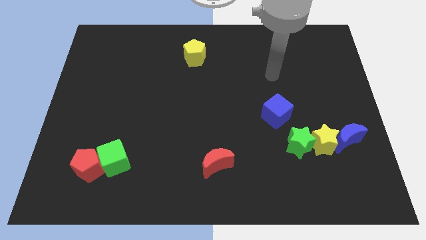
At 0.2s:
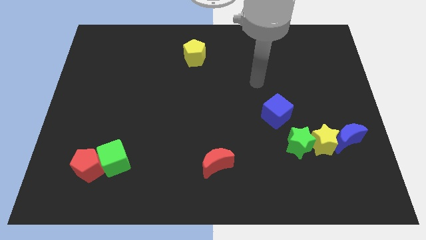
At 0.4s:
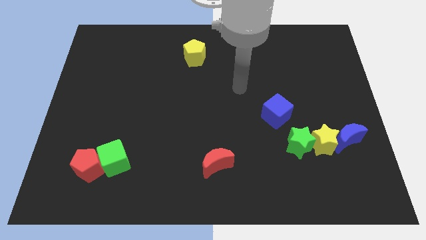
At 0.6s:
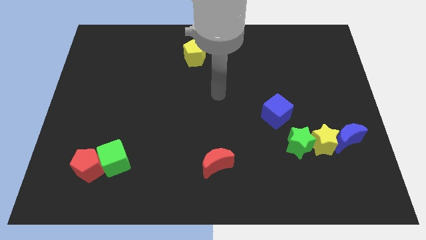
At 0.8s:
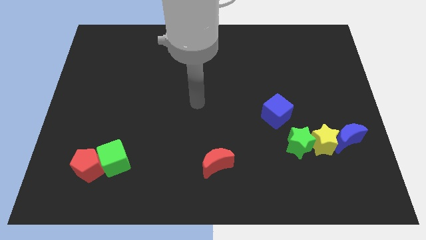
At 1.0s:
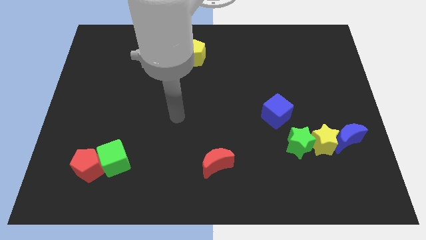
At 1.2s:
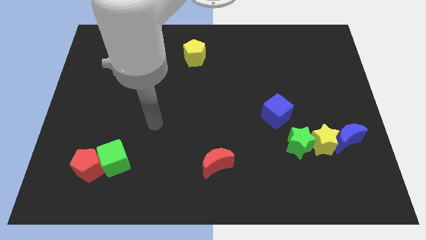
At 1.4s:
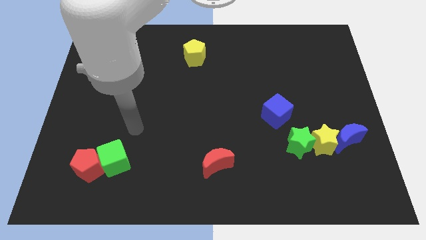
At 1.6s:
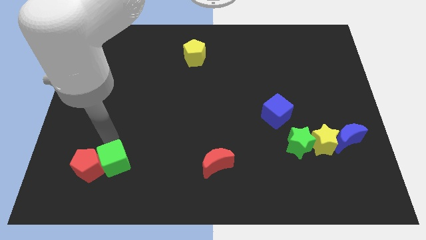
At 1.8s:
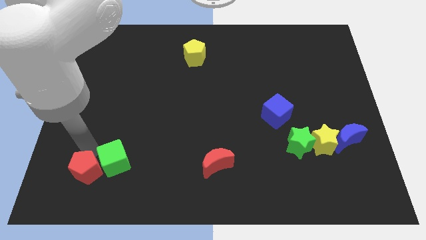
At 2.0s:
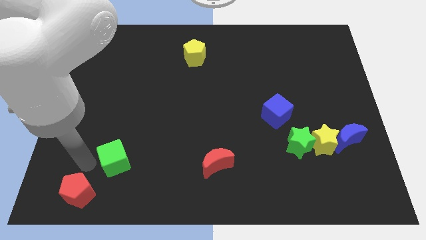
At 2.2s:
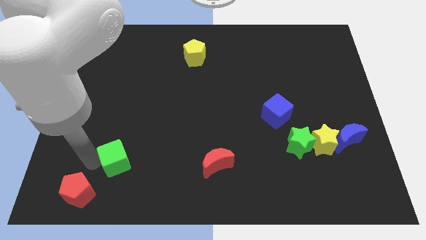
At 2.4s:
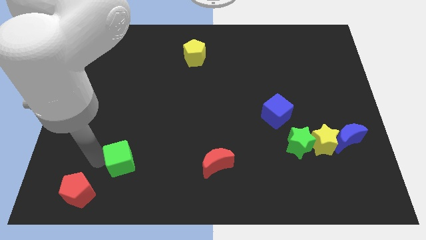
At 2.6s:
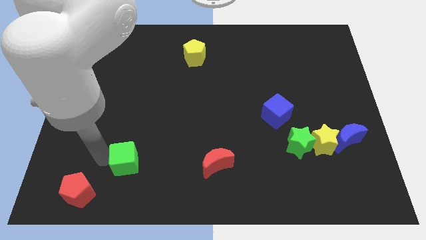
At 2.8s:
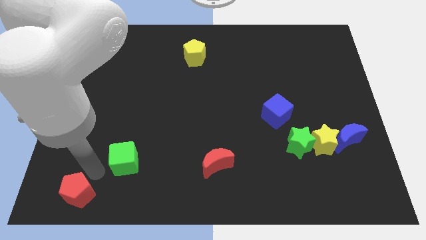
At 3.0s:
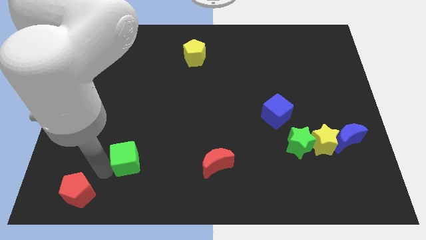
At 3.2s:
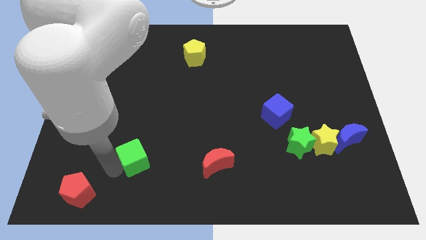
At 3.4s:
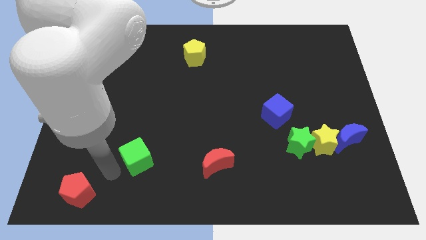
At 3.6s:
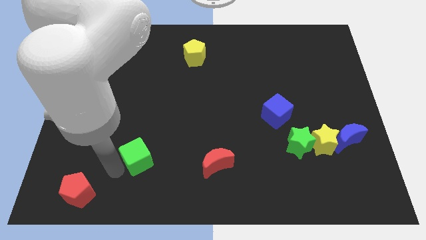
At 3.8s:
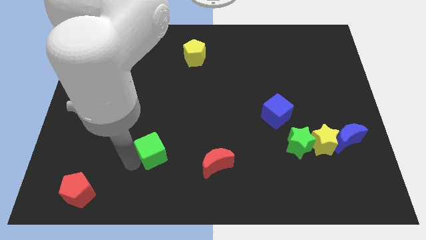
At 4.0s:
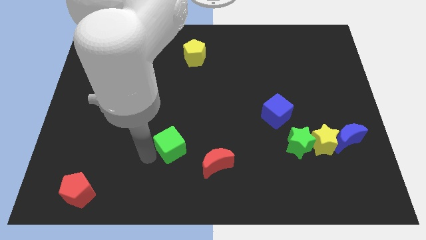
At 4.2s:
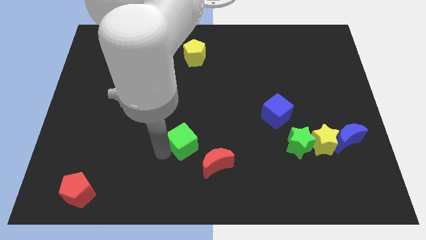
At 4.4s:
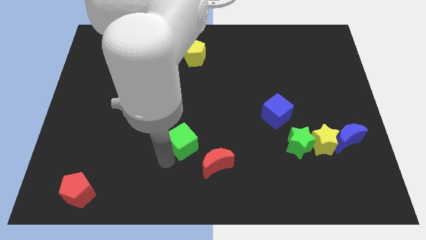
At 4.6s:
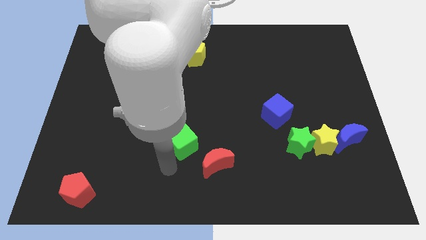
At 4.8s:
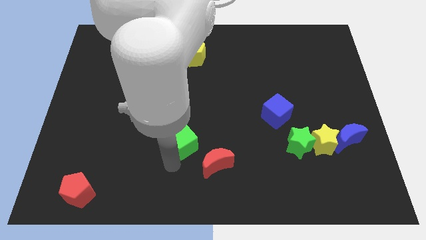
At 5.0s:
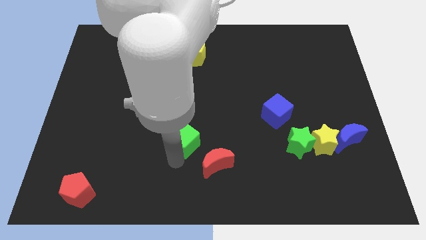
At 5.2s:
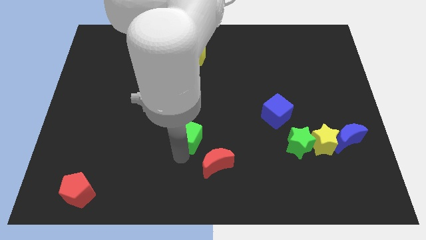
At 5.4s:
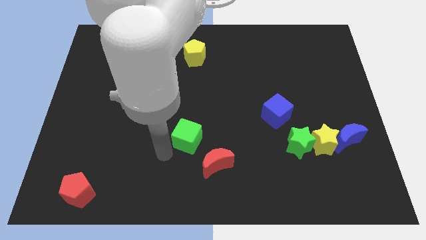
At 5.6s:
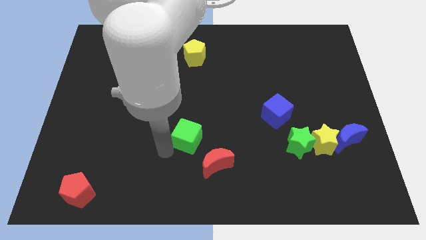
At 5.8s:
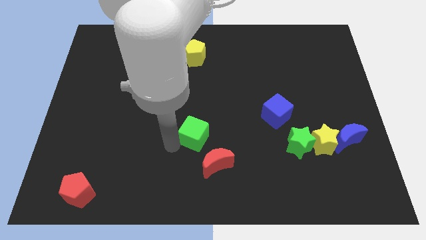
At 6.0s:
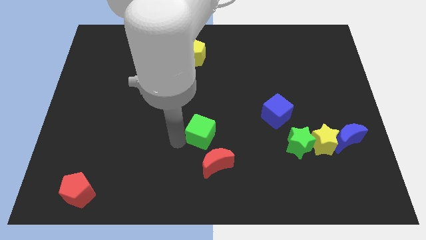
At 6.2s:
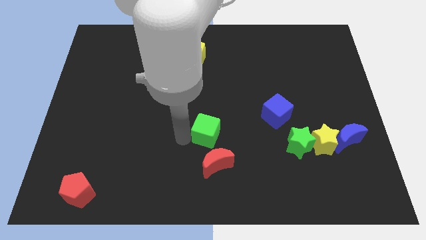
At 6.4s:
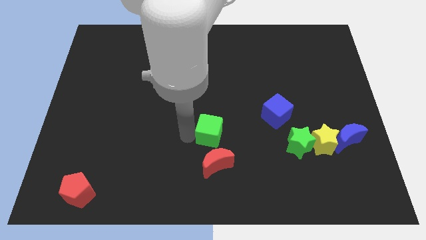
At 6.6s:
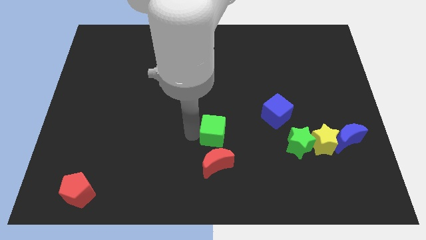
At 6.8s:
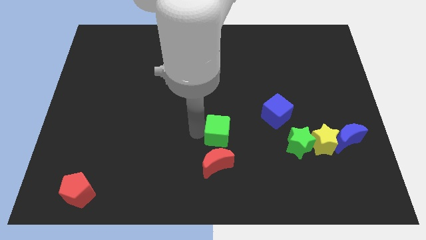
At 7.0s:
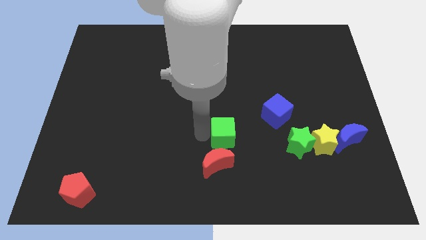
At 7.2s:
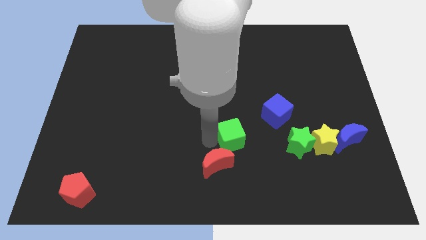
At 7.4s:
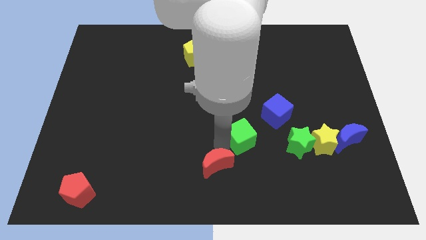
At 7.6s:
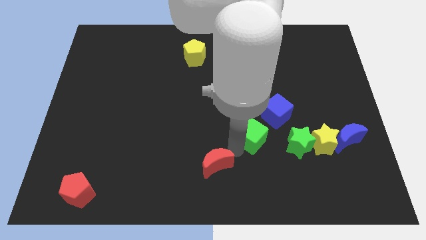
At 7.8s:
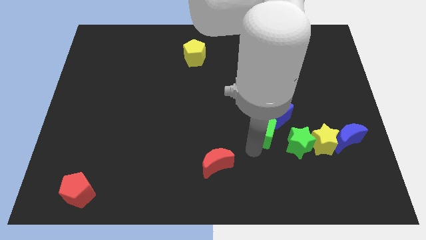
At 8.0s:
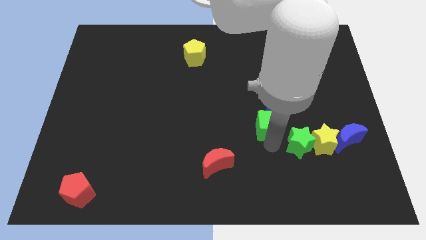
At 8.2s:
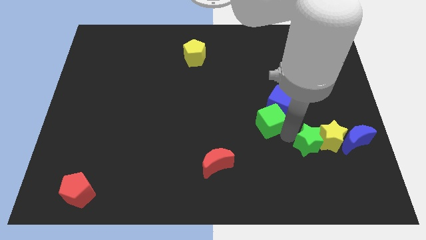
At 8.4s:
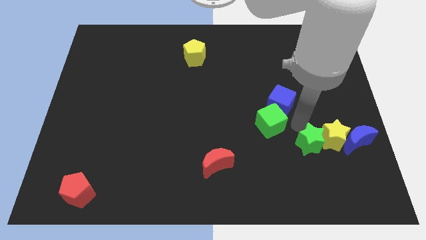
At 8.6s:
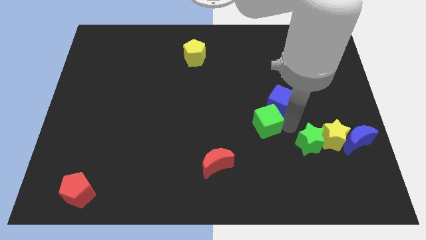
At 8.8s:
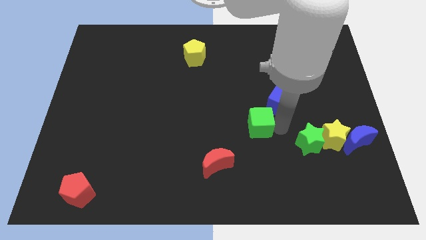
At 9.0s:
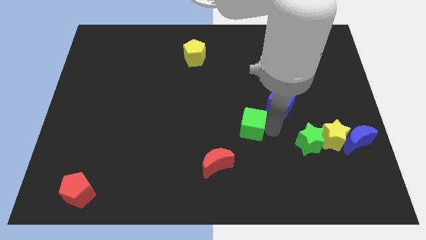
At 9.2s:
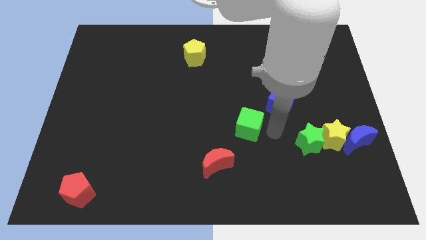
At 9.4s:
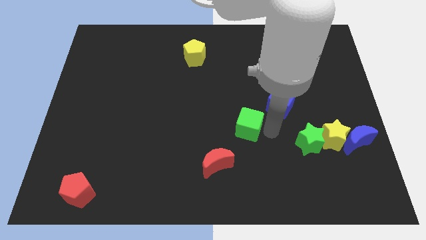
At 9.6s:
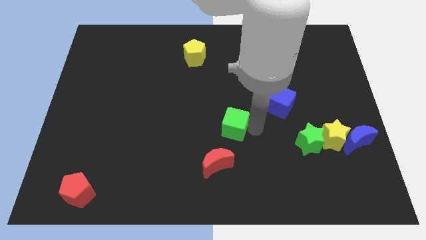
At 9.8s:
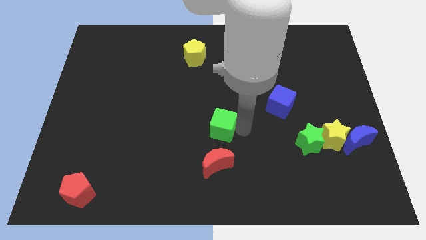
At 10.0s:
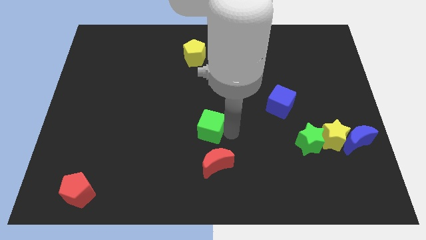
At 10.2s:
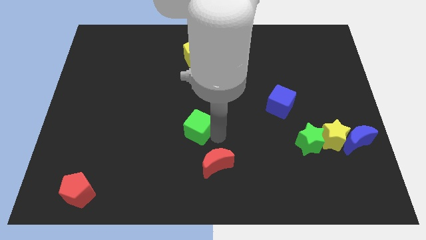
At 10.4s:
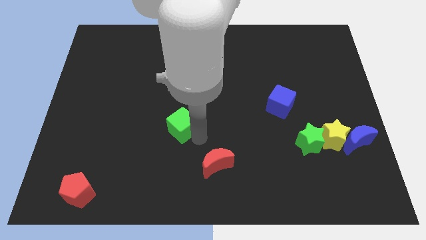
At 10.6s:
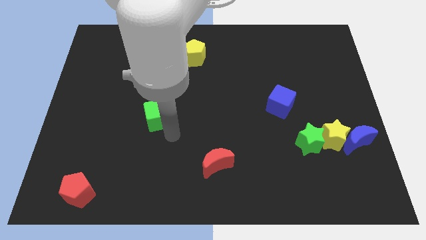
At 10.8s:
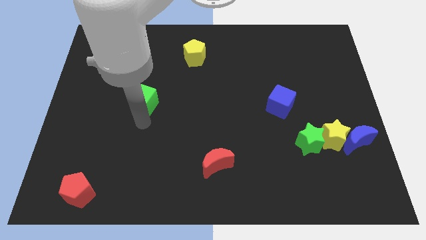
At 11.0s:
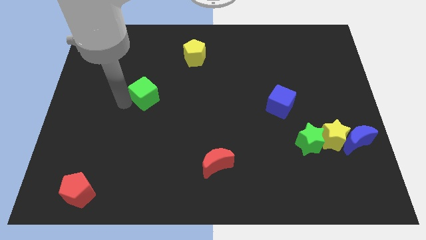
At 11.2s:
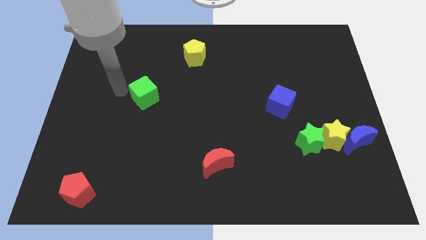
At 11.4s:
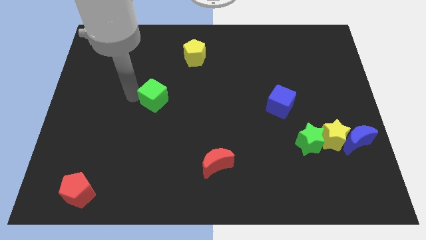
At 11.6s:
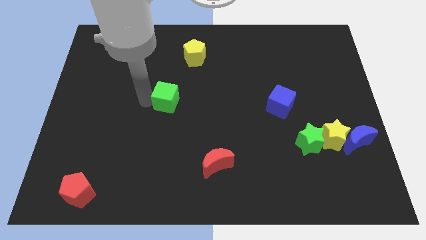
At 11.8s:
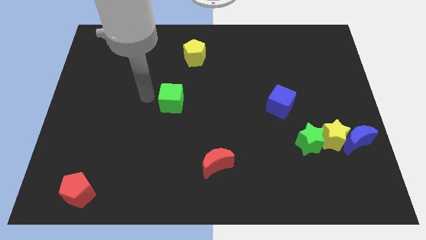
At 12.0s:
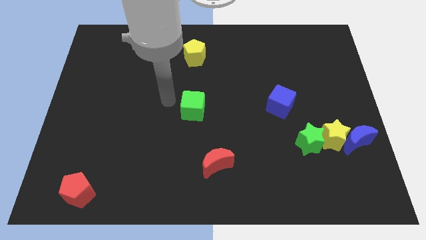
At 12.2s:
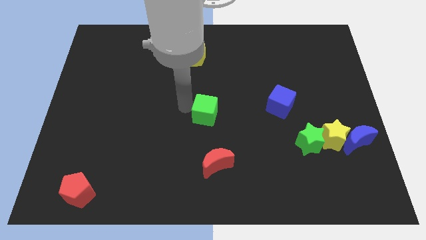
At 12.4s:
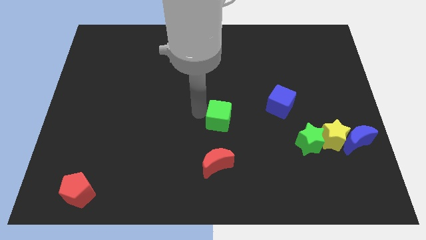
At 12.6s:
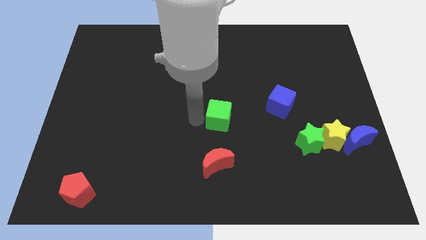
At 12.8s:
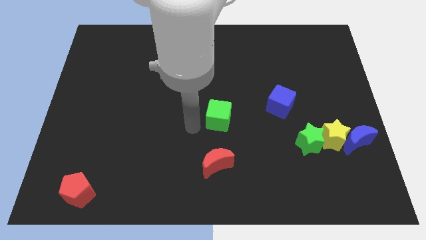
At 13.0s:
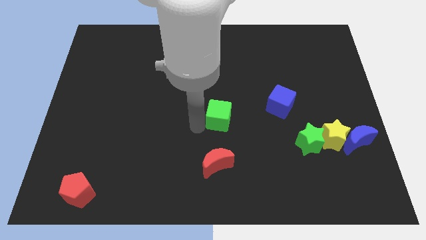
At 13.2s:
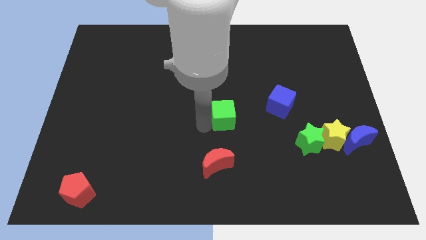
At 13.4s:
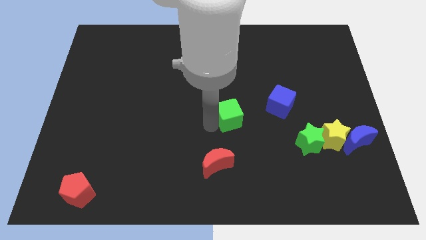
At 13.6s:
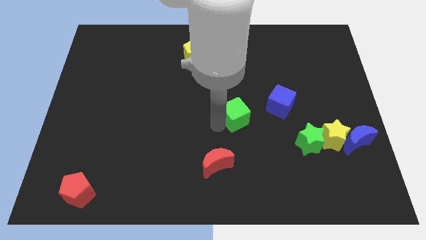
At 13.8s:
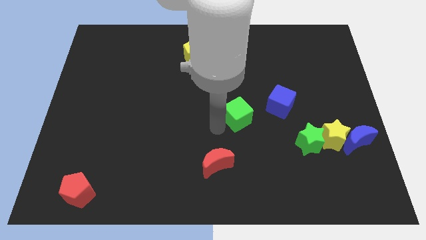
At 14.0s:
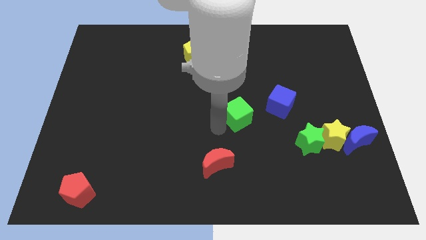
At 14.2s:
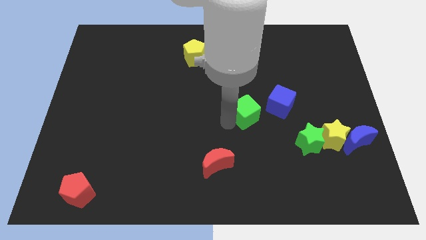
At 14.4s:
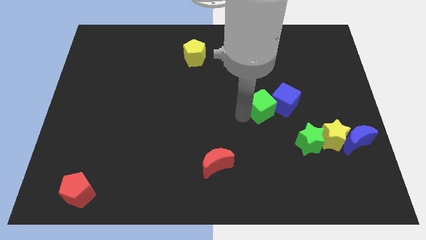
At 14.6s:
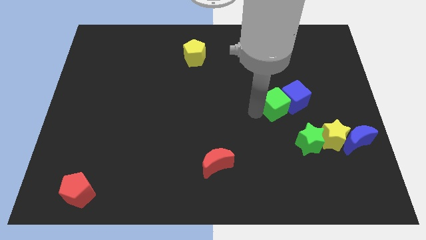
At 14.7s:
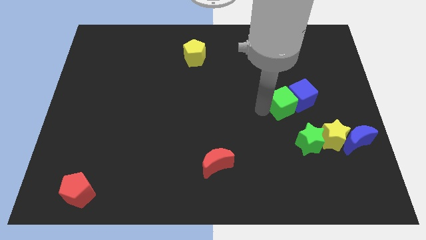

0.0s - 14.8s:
move the green cube to the top side of the green star
